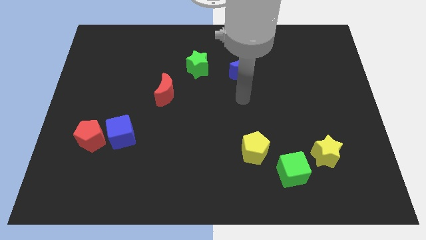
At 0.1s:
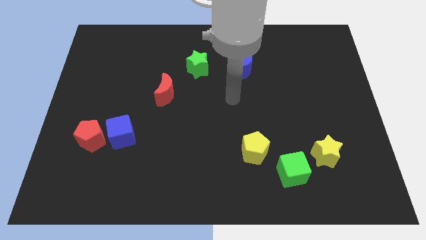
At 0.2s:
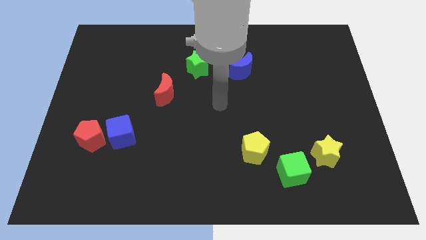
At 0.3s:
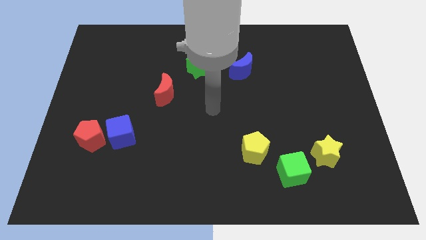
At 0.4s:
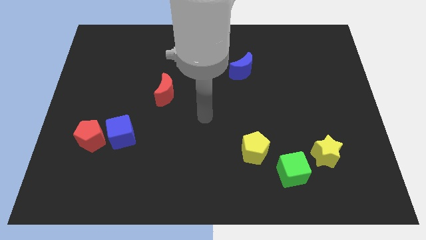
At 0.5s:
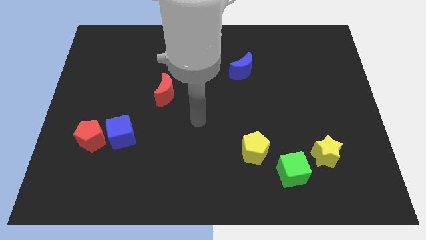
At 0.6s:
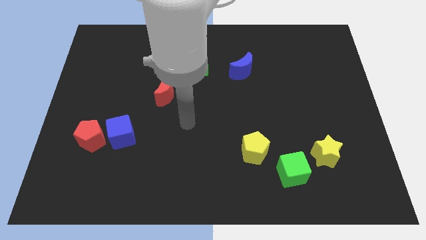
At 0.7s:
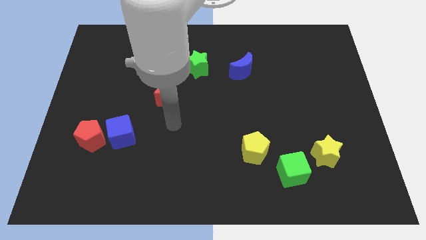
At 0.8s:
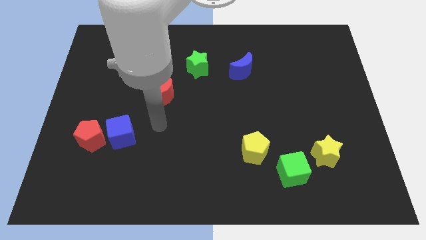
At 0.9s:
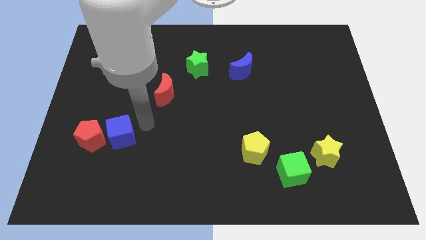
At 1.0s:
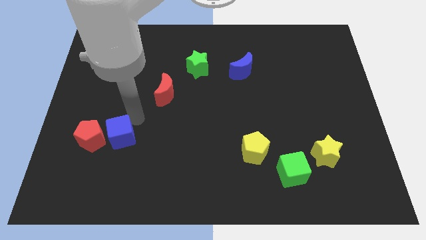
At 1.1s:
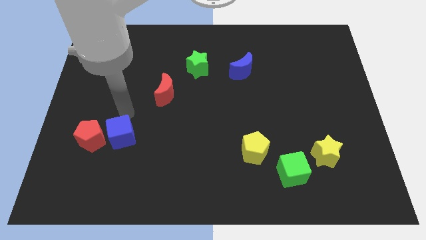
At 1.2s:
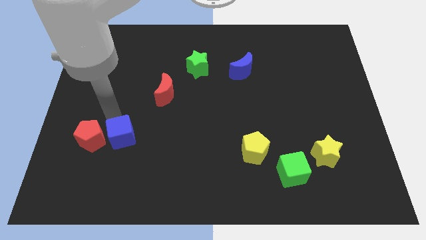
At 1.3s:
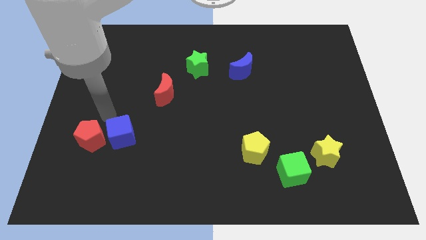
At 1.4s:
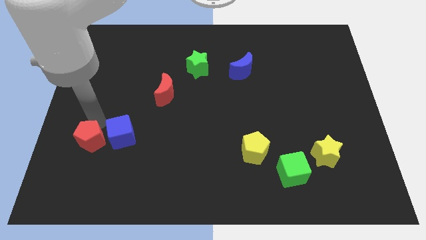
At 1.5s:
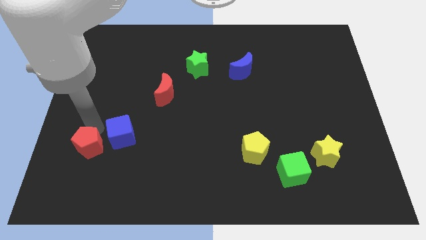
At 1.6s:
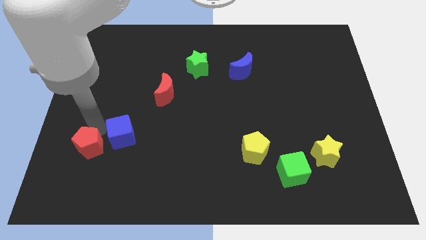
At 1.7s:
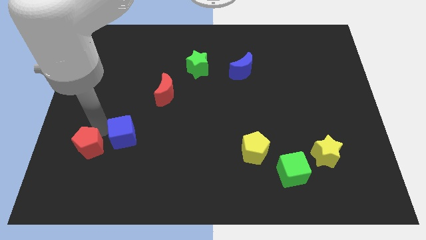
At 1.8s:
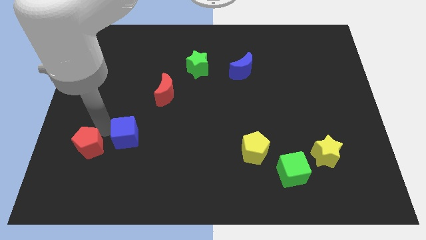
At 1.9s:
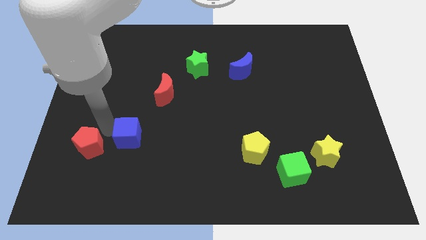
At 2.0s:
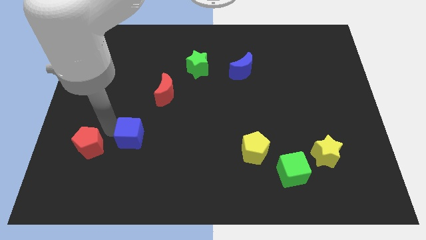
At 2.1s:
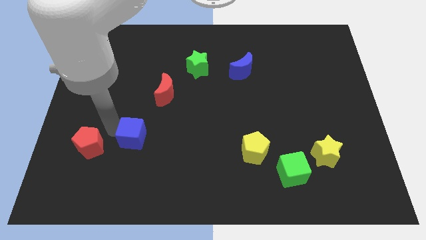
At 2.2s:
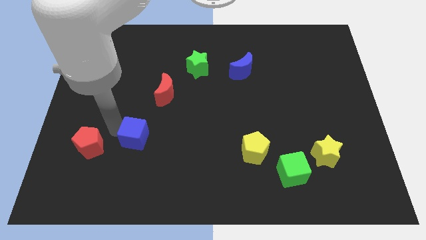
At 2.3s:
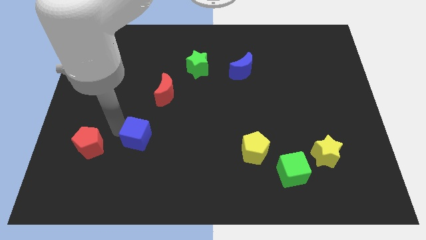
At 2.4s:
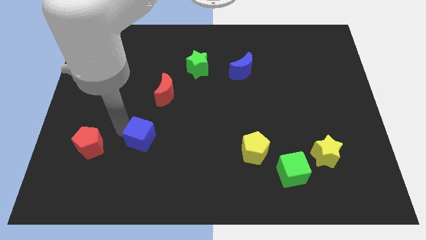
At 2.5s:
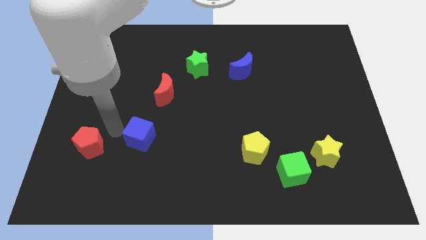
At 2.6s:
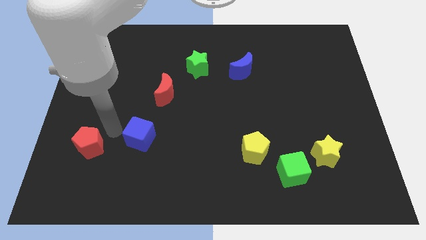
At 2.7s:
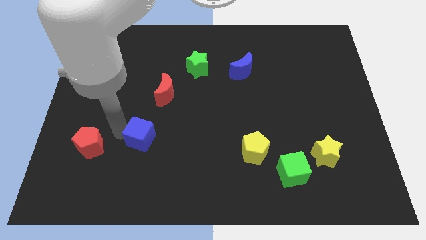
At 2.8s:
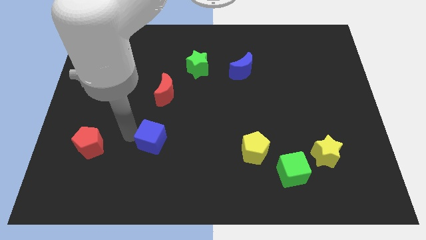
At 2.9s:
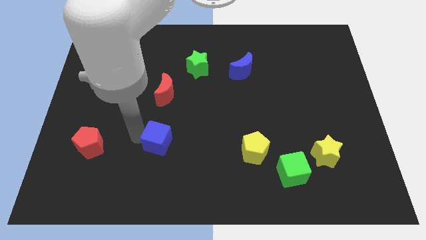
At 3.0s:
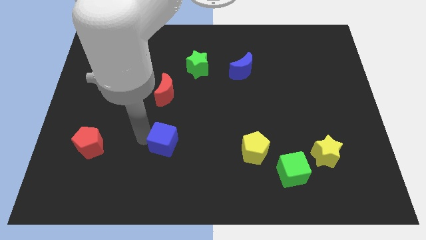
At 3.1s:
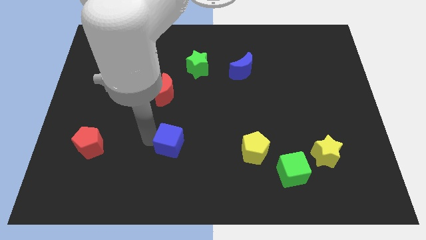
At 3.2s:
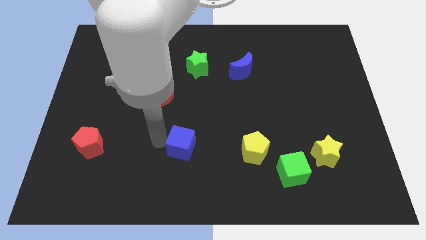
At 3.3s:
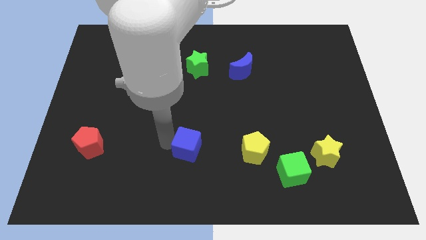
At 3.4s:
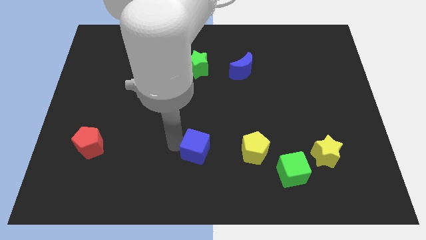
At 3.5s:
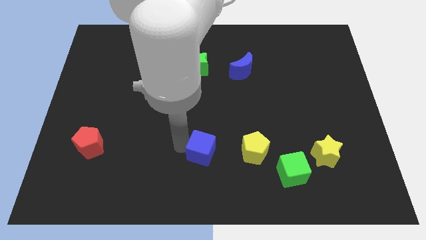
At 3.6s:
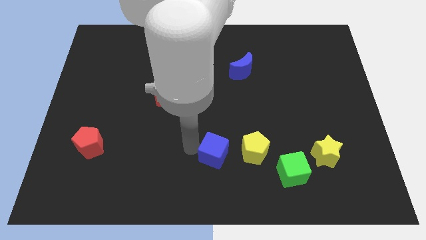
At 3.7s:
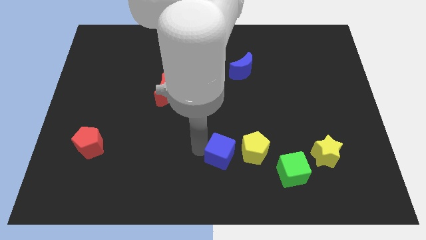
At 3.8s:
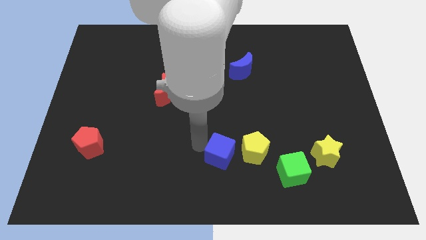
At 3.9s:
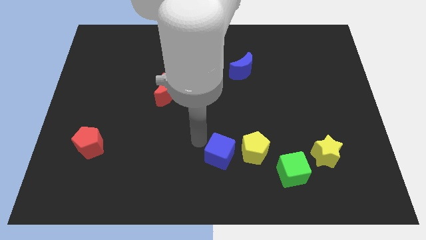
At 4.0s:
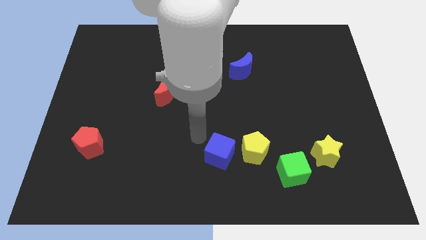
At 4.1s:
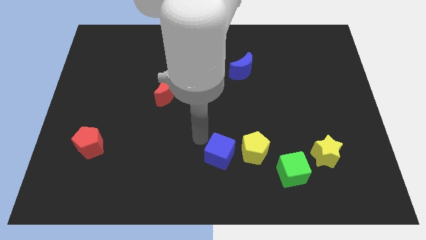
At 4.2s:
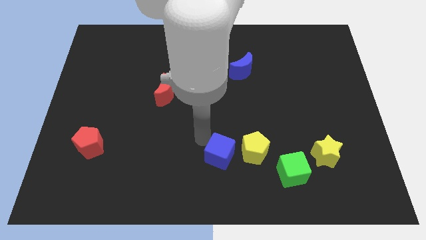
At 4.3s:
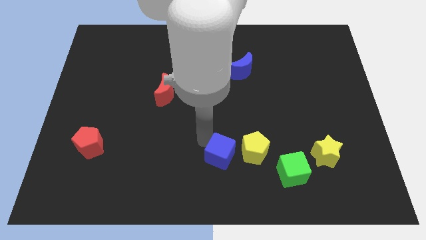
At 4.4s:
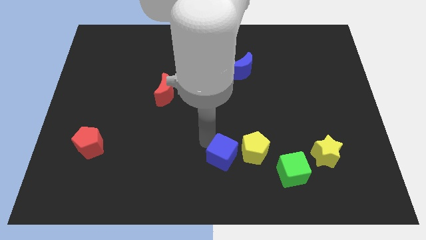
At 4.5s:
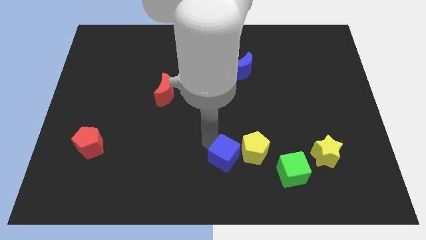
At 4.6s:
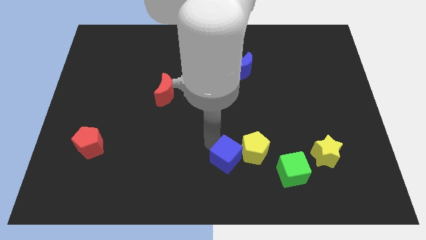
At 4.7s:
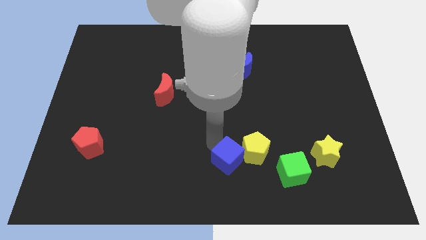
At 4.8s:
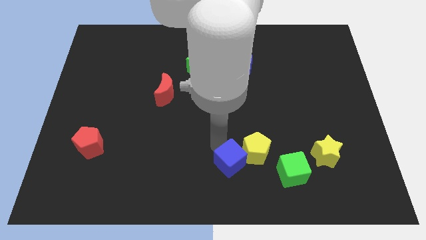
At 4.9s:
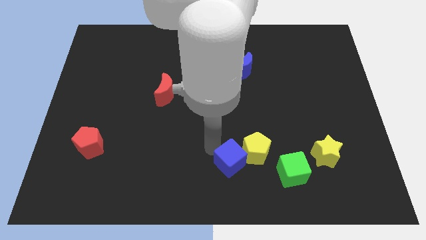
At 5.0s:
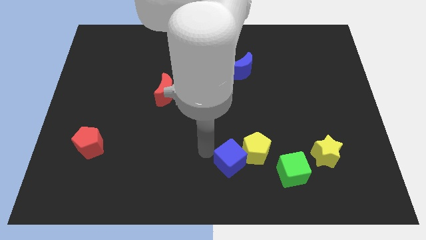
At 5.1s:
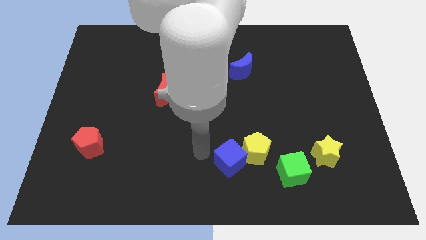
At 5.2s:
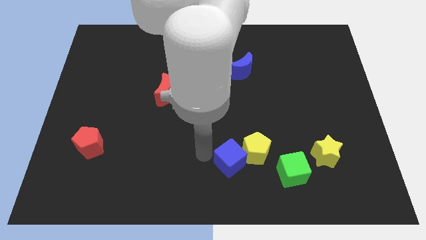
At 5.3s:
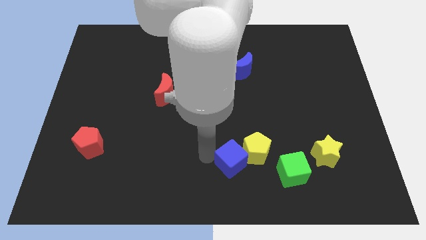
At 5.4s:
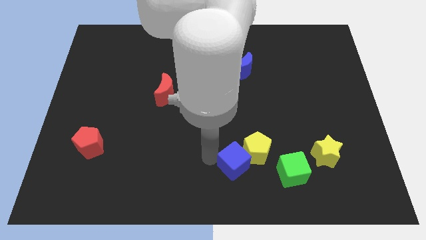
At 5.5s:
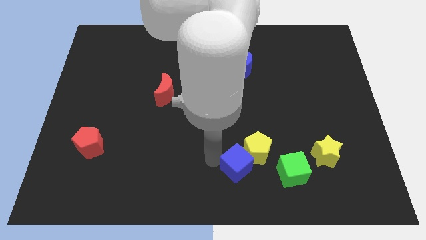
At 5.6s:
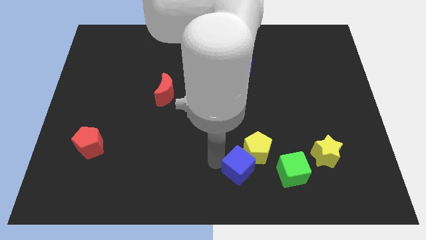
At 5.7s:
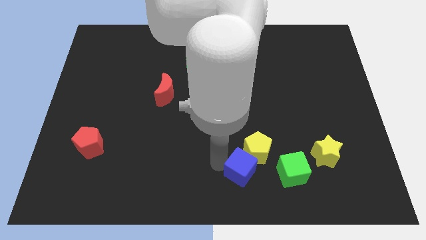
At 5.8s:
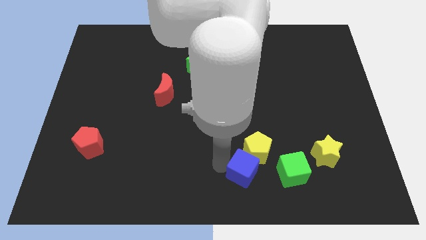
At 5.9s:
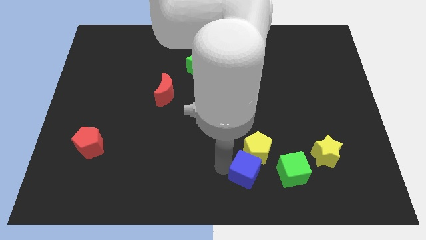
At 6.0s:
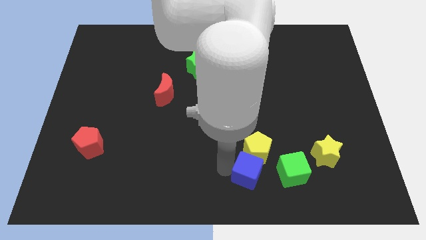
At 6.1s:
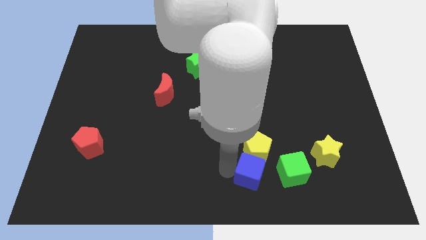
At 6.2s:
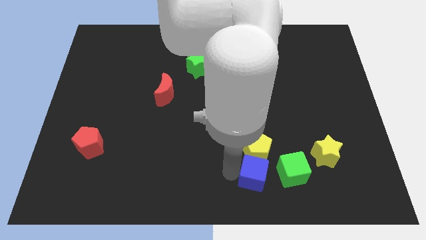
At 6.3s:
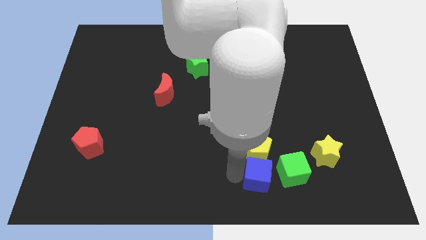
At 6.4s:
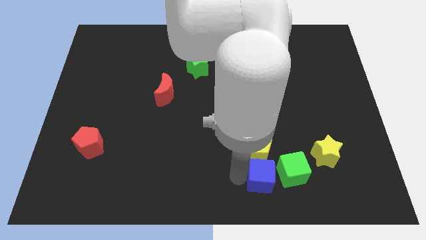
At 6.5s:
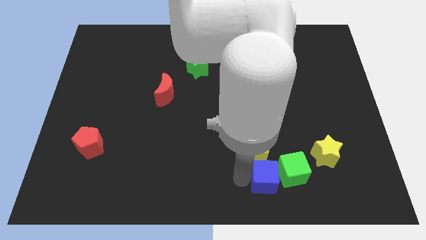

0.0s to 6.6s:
push the blue cube next to the green cube

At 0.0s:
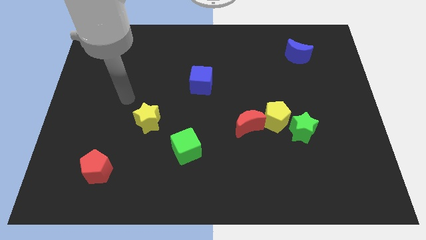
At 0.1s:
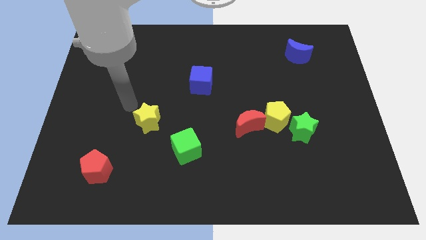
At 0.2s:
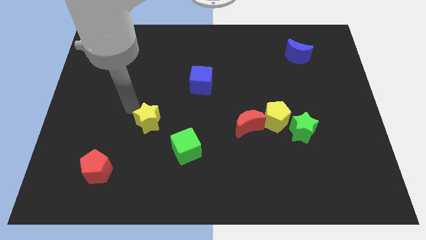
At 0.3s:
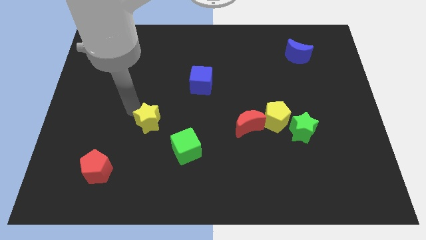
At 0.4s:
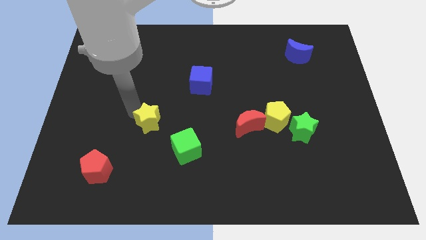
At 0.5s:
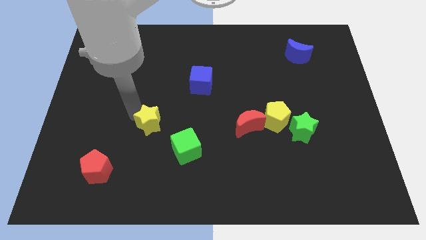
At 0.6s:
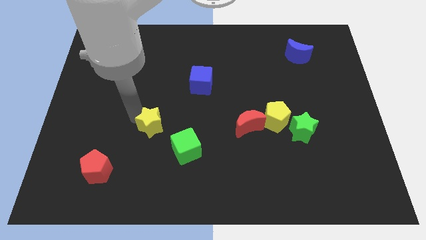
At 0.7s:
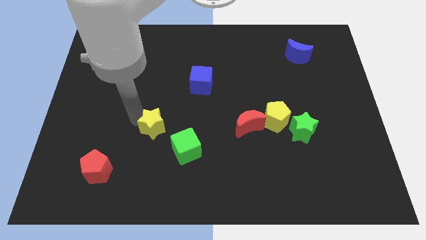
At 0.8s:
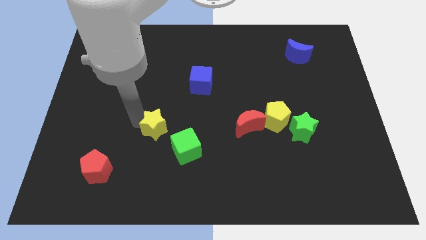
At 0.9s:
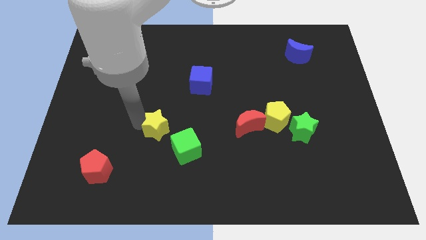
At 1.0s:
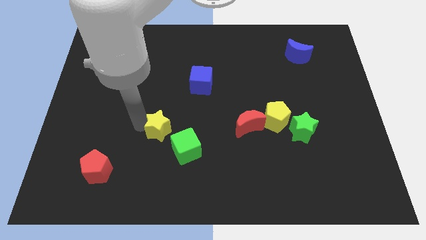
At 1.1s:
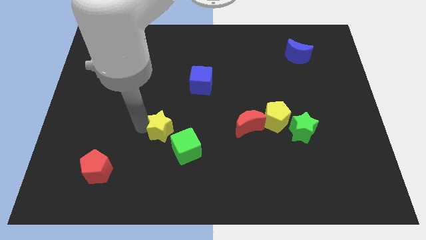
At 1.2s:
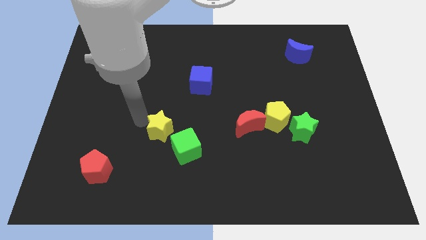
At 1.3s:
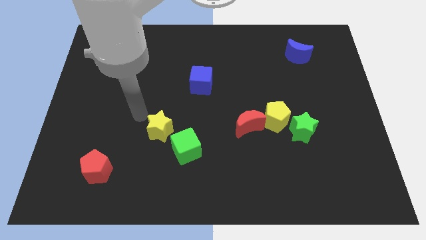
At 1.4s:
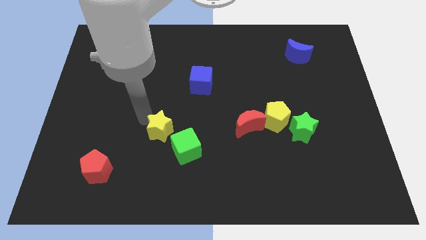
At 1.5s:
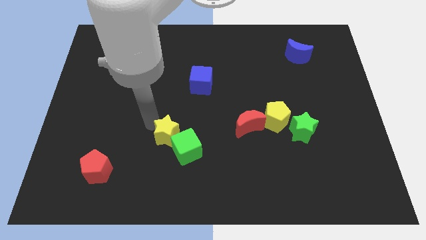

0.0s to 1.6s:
move the yellow star next to the green cube
